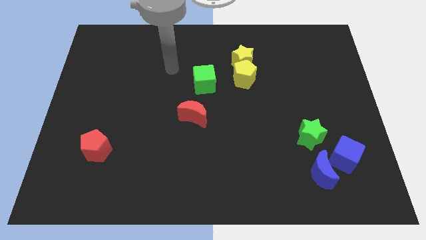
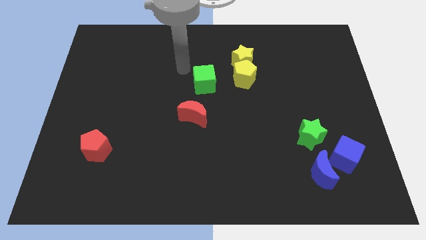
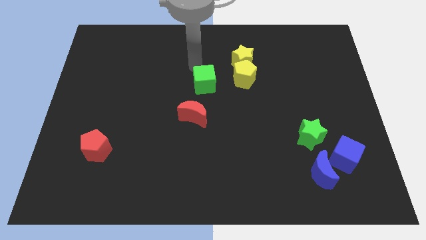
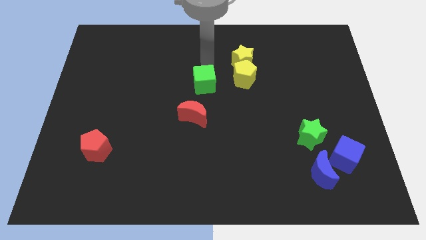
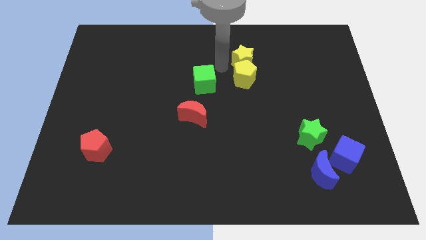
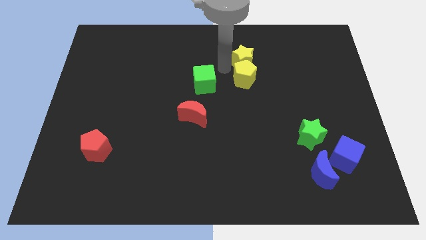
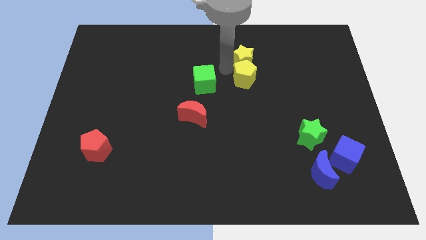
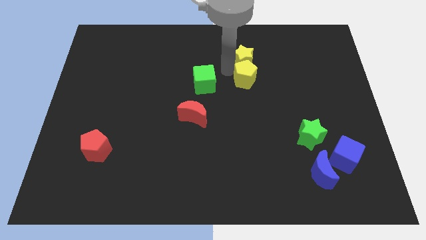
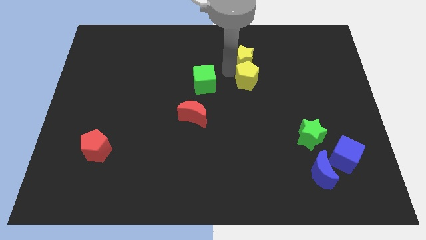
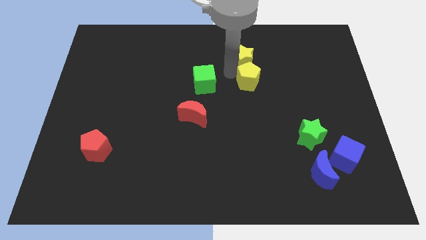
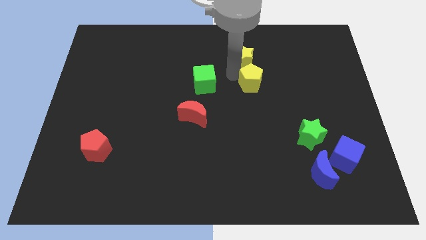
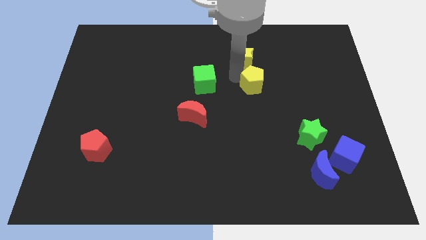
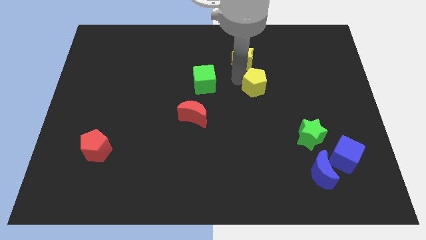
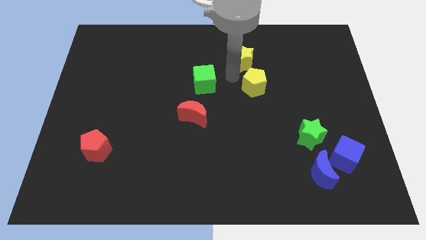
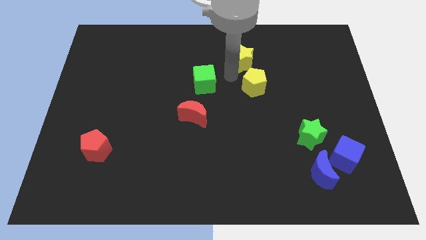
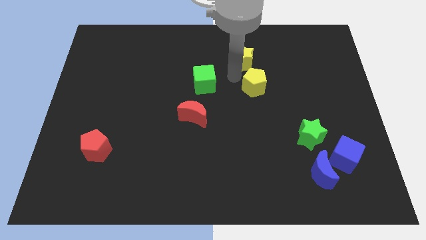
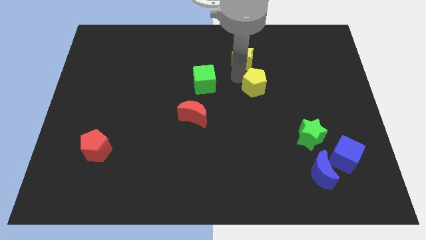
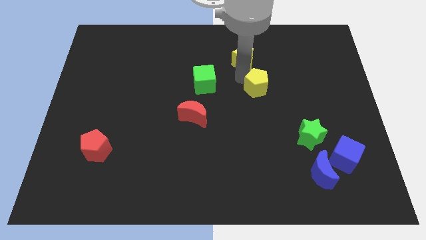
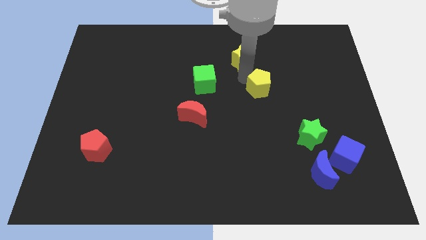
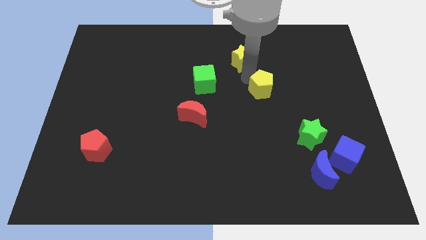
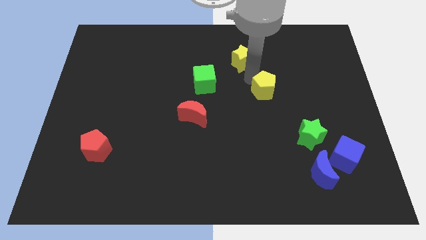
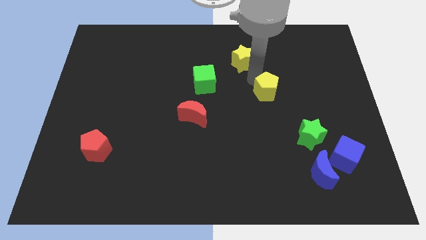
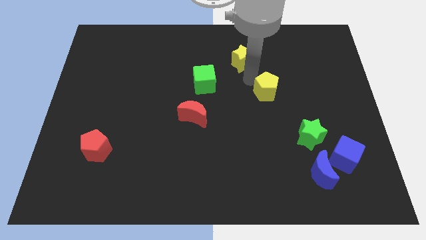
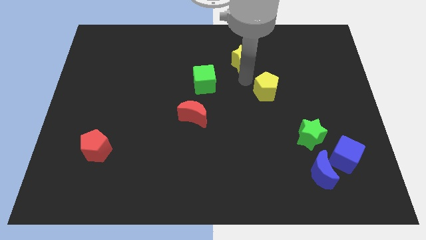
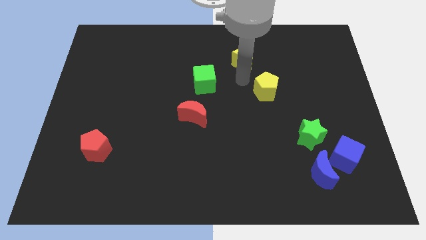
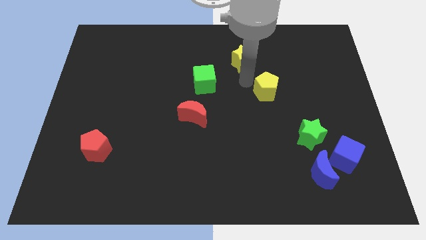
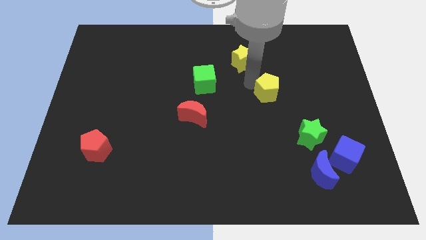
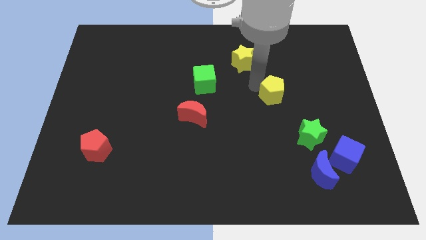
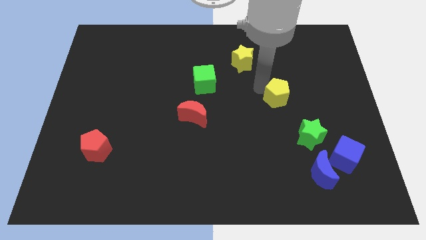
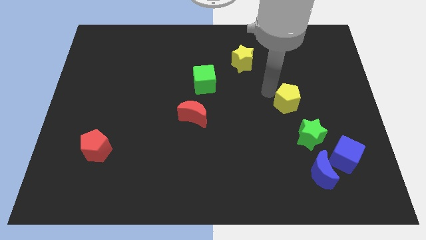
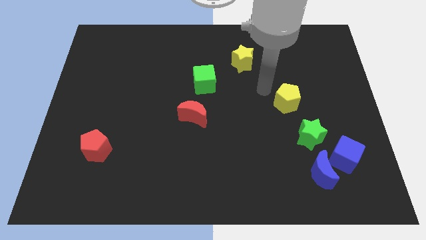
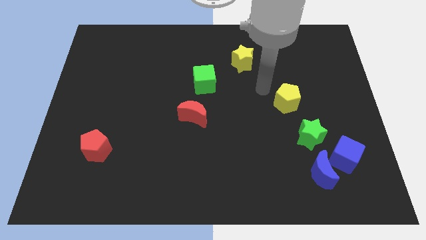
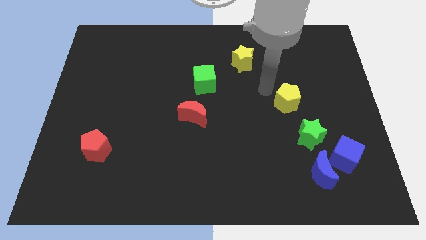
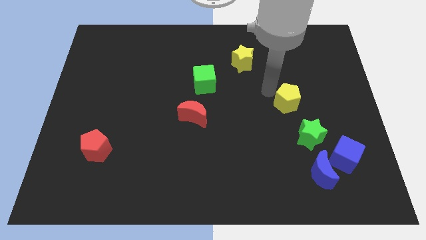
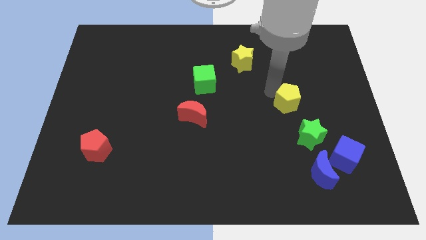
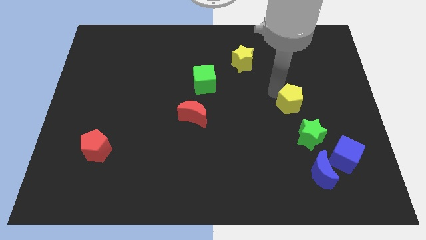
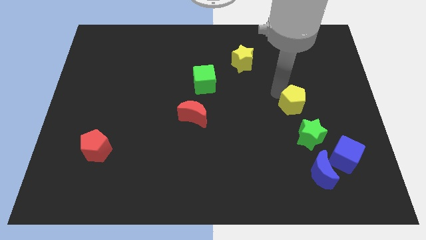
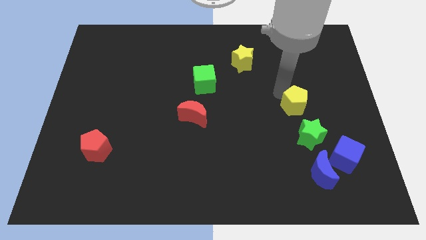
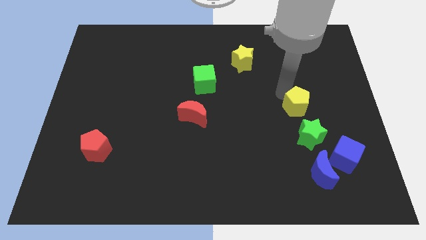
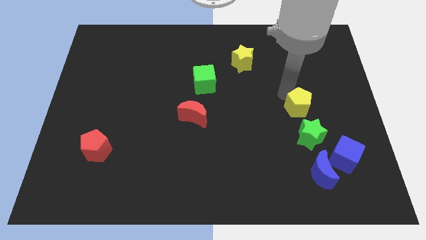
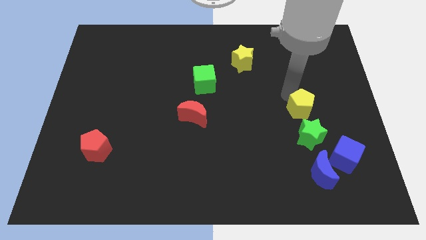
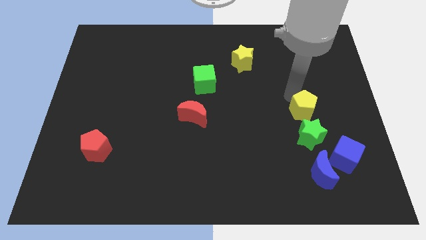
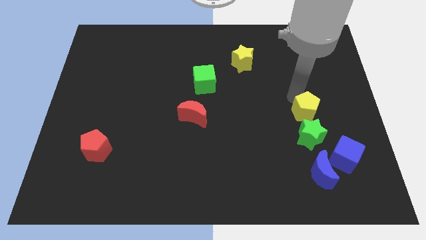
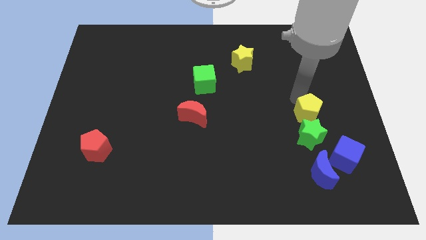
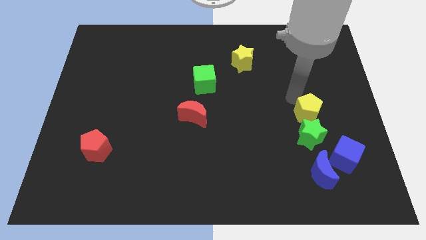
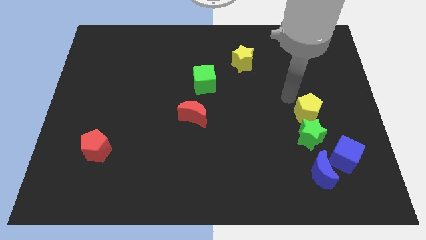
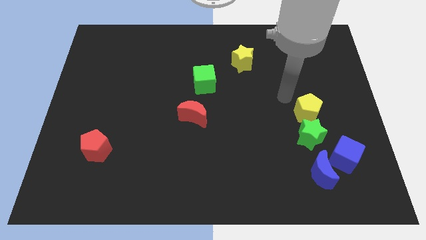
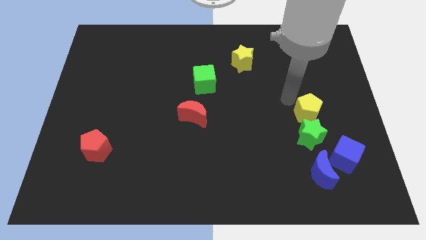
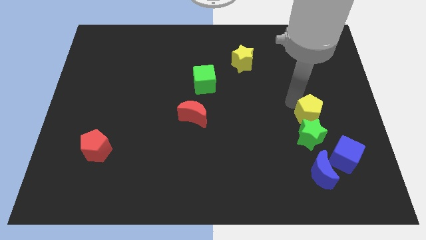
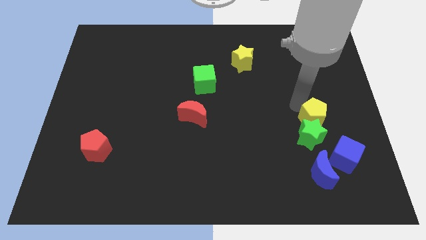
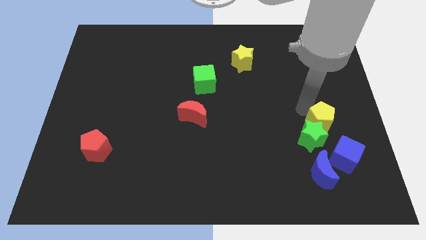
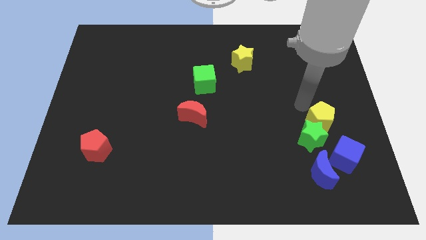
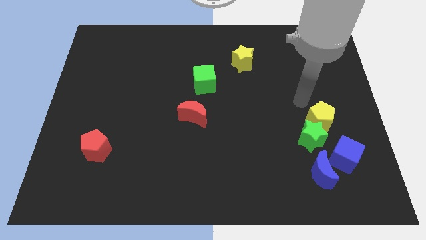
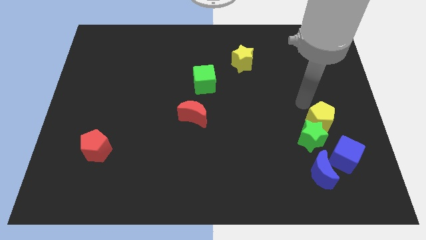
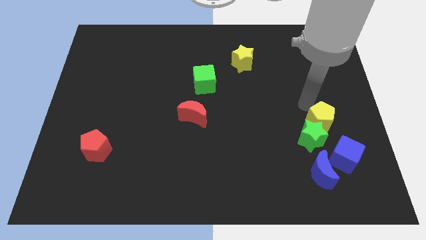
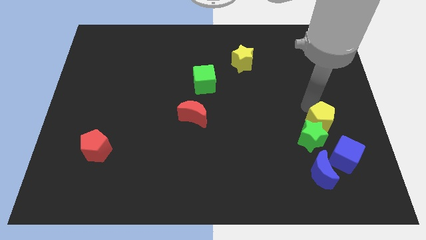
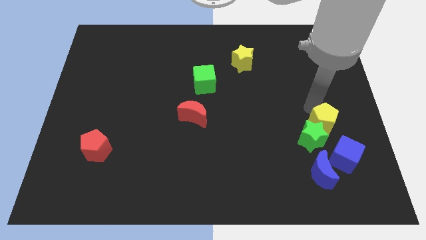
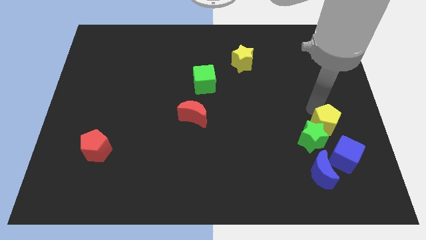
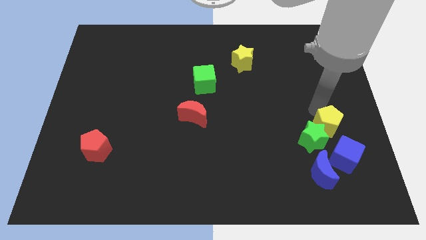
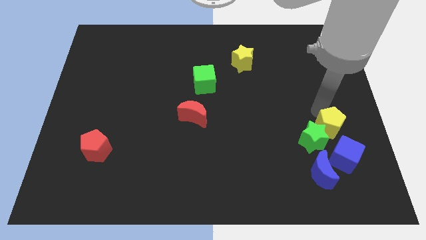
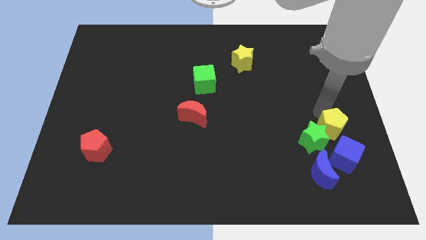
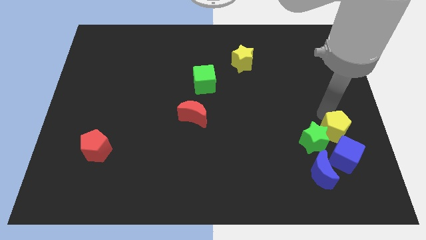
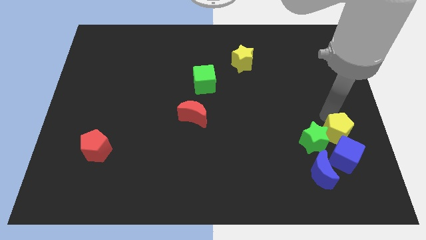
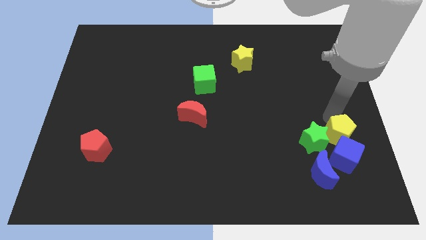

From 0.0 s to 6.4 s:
move the yellow pentagon close to the blue cube

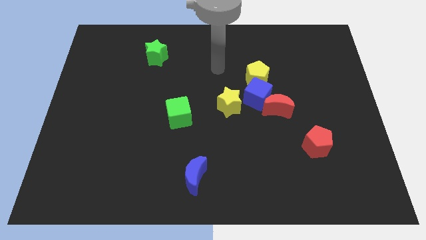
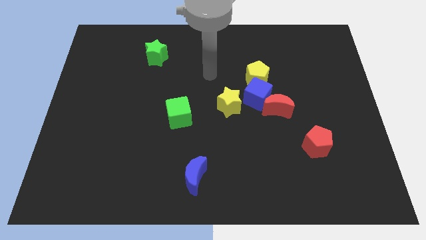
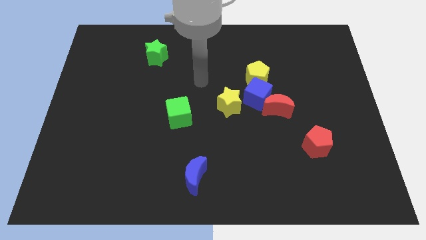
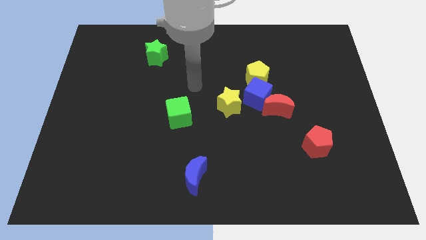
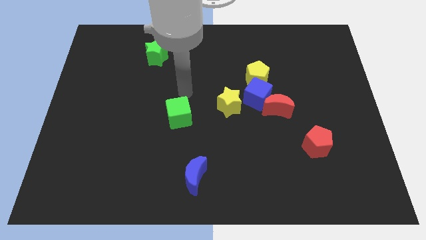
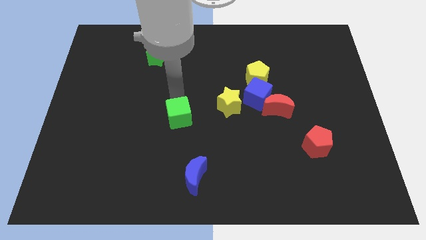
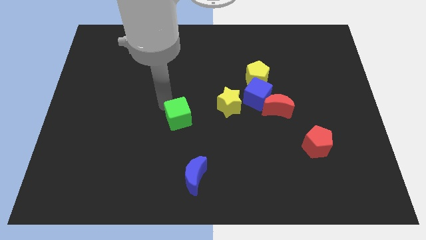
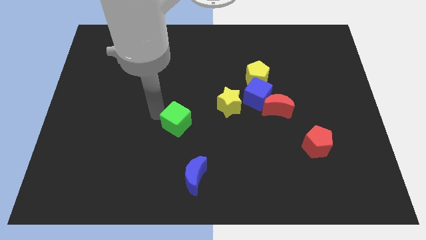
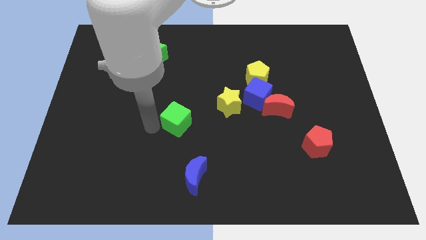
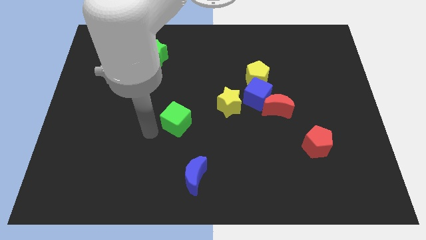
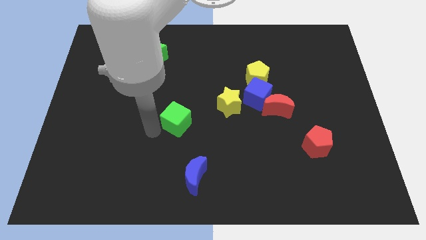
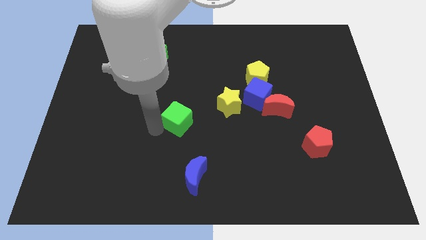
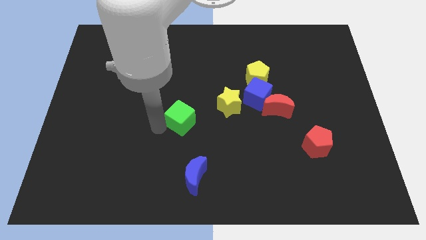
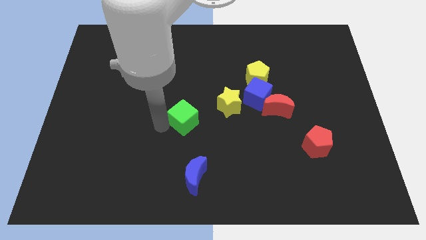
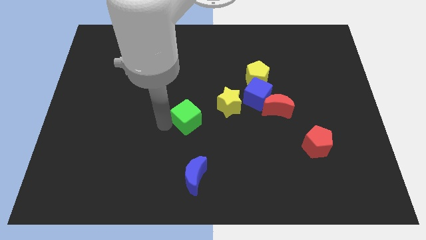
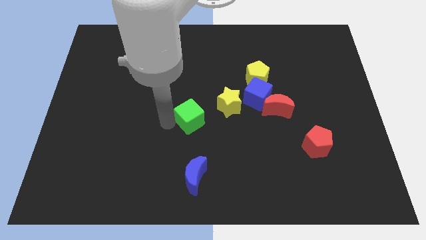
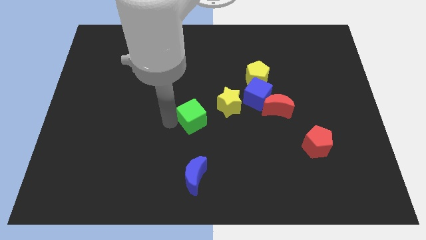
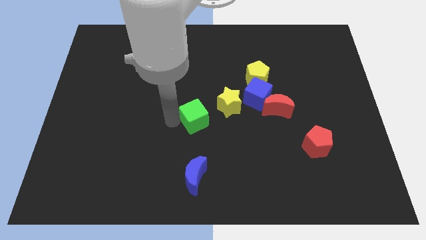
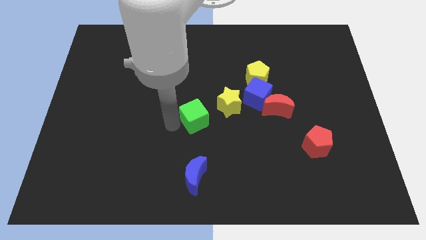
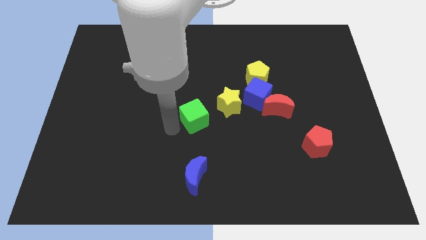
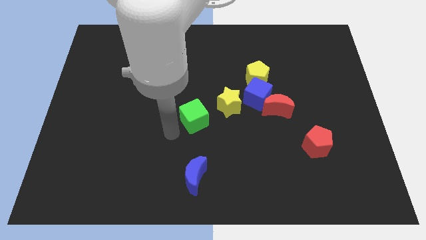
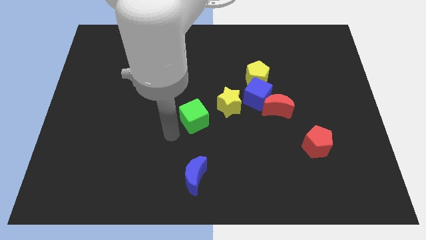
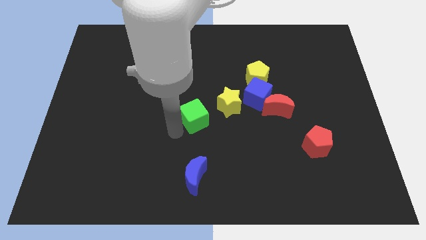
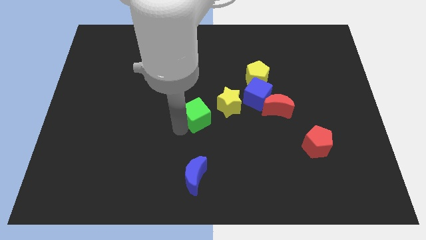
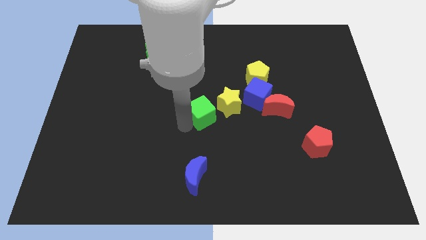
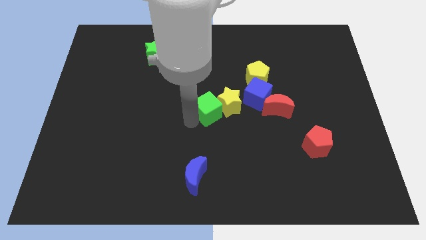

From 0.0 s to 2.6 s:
move the green cube next to the yellow star
